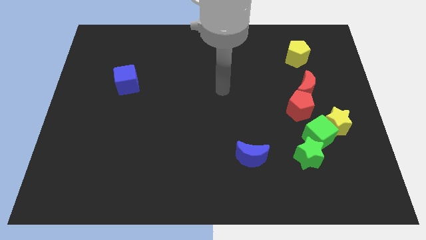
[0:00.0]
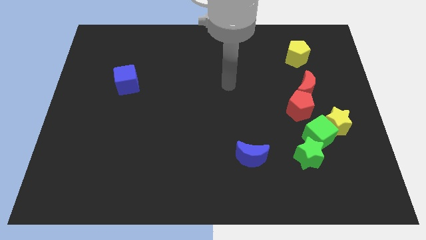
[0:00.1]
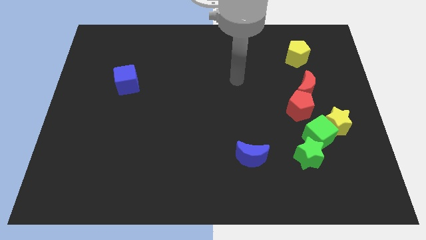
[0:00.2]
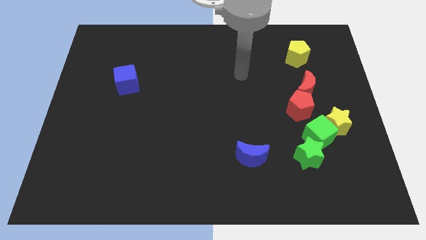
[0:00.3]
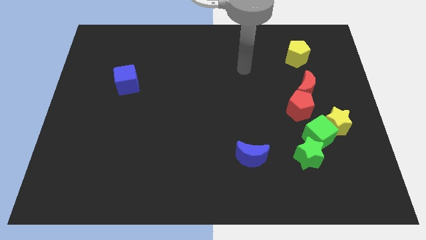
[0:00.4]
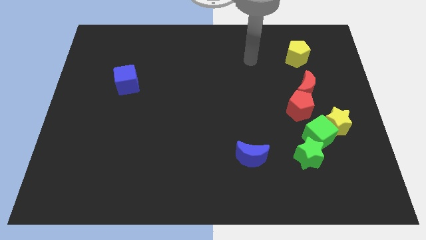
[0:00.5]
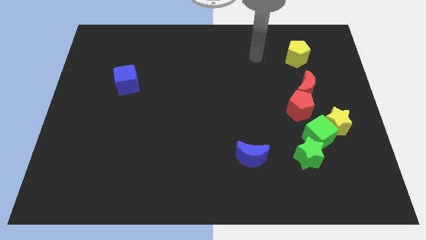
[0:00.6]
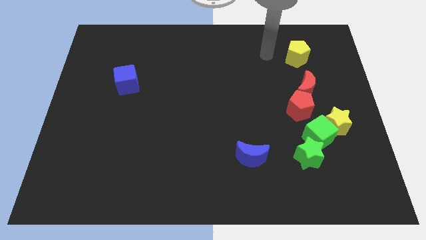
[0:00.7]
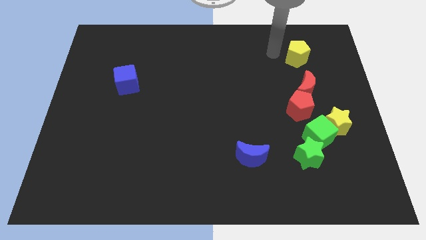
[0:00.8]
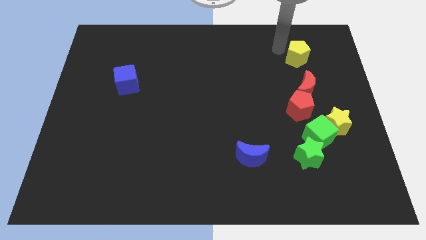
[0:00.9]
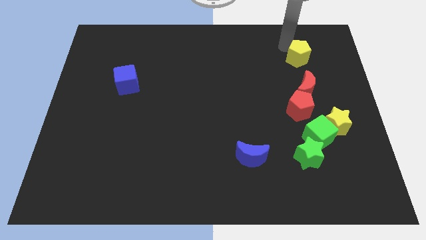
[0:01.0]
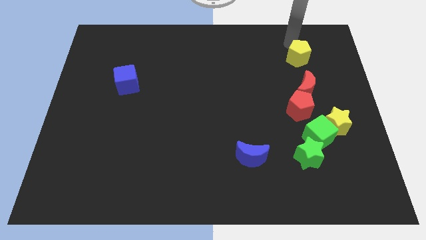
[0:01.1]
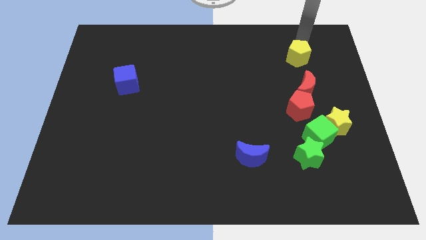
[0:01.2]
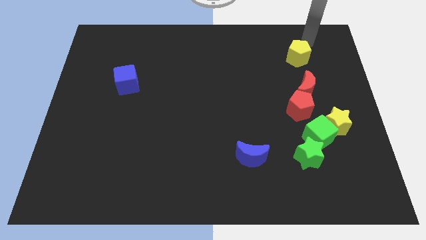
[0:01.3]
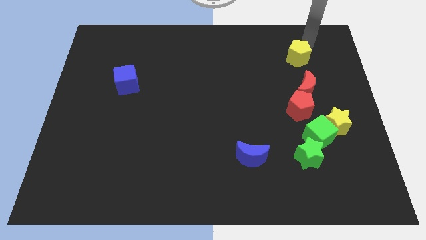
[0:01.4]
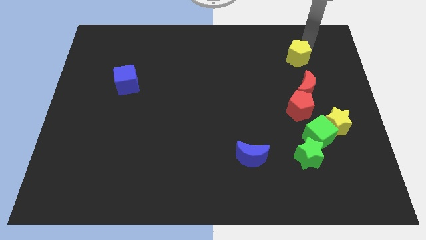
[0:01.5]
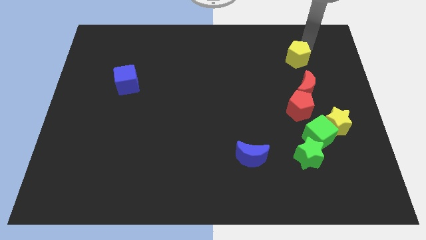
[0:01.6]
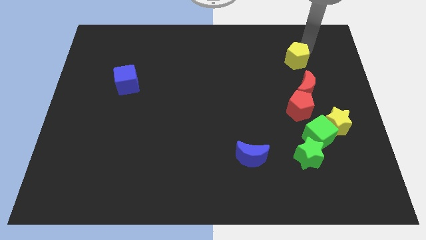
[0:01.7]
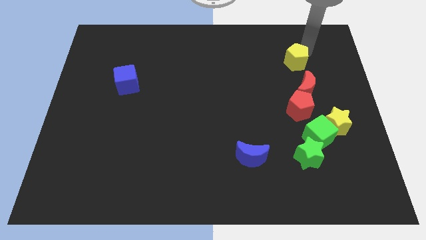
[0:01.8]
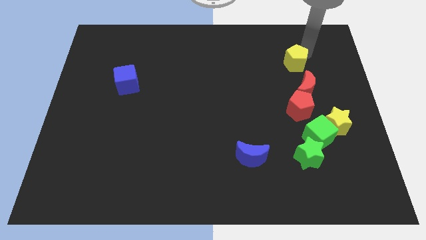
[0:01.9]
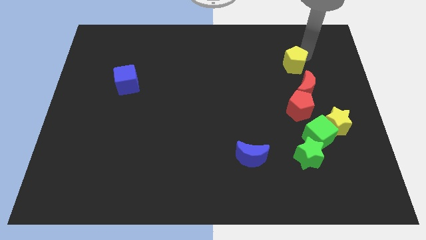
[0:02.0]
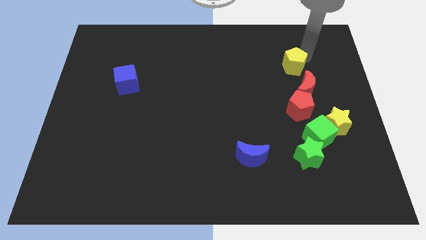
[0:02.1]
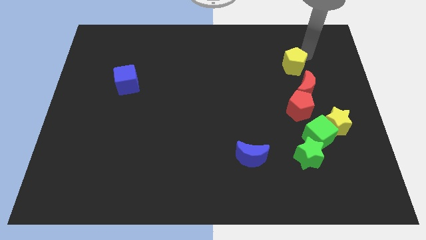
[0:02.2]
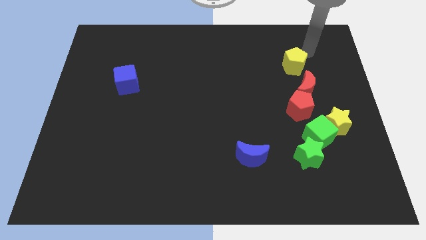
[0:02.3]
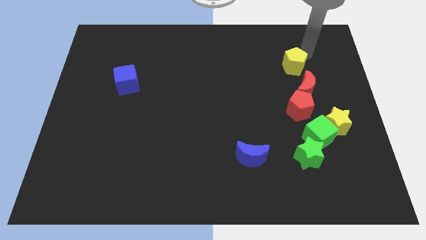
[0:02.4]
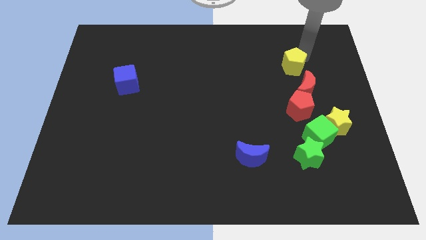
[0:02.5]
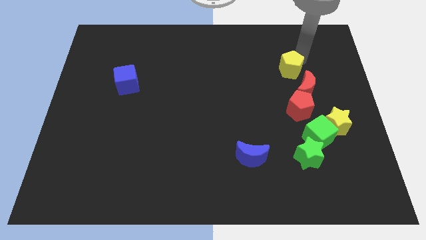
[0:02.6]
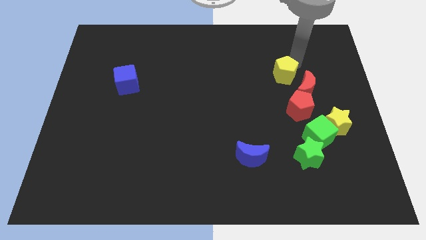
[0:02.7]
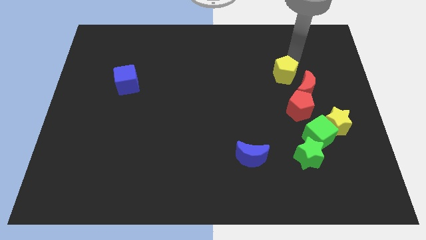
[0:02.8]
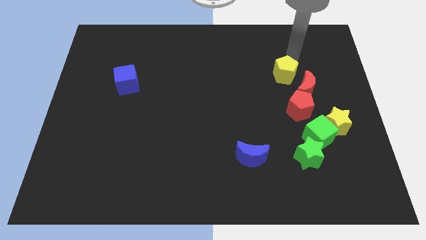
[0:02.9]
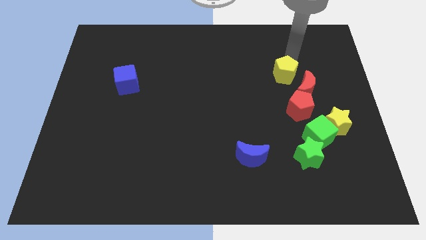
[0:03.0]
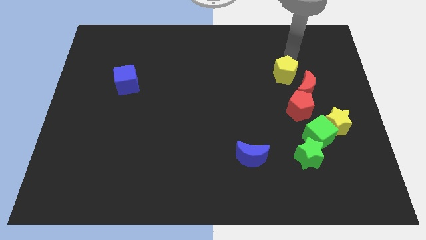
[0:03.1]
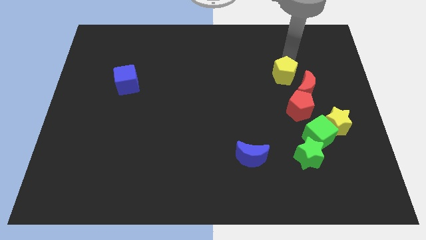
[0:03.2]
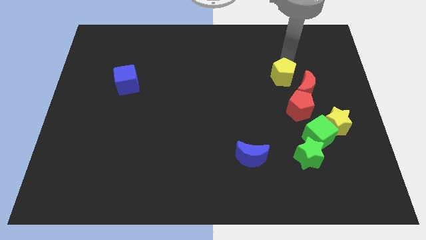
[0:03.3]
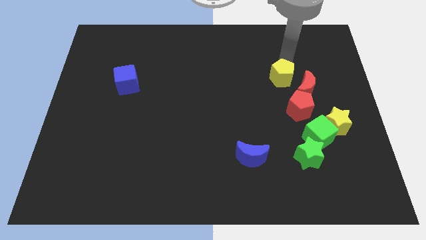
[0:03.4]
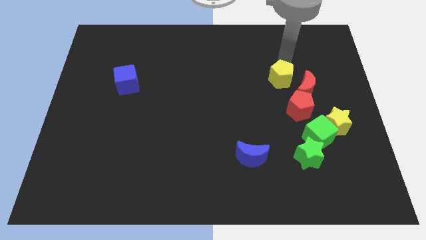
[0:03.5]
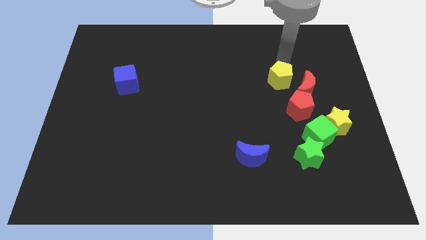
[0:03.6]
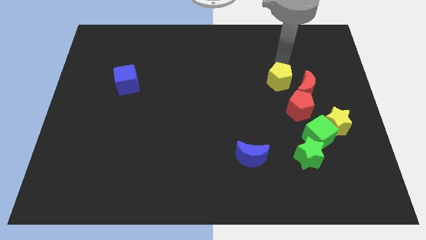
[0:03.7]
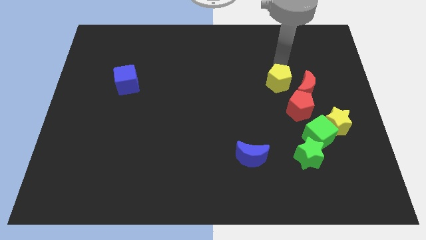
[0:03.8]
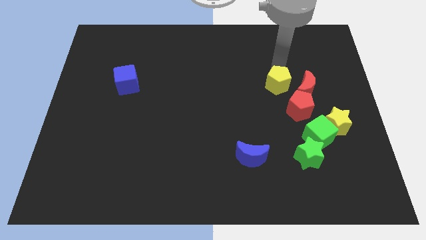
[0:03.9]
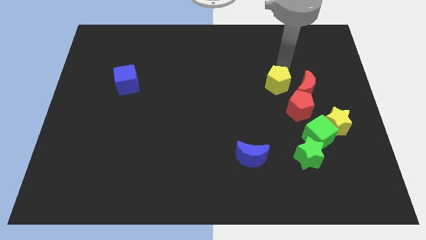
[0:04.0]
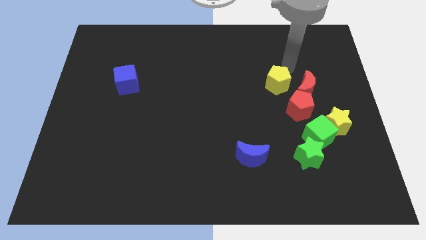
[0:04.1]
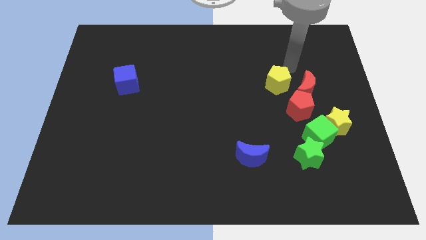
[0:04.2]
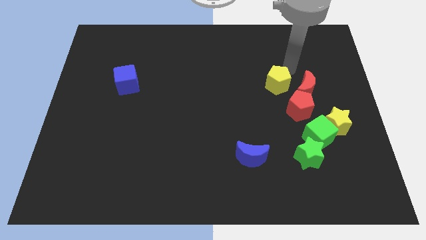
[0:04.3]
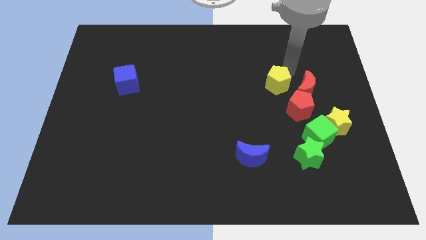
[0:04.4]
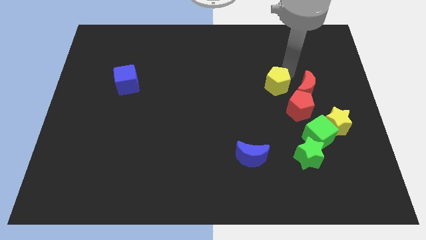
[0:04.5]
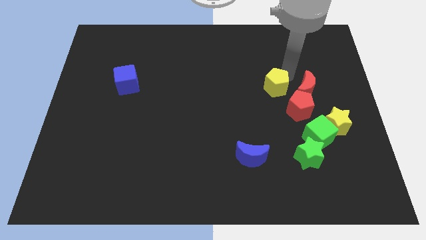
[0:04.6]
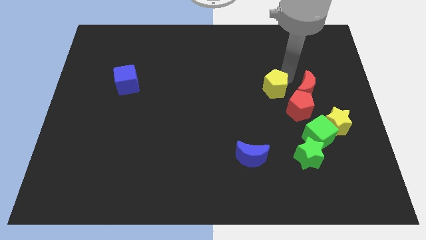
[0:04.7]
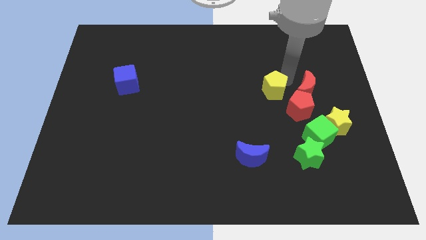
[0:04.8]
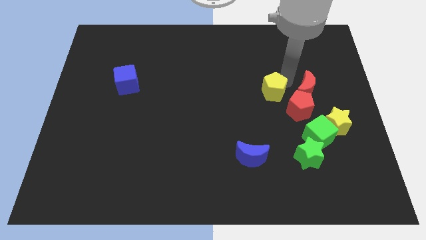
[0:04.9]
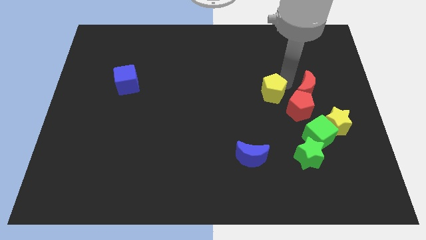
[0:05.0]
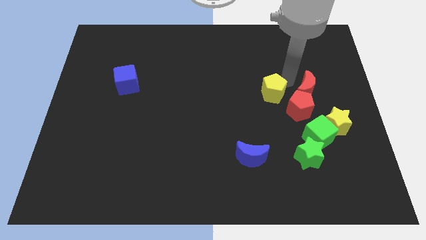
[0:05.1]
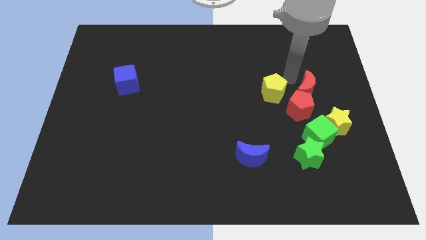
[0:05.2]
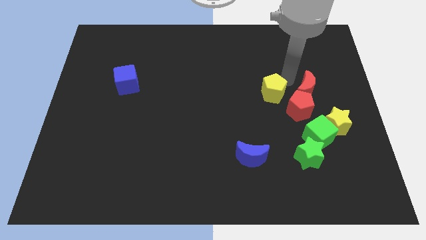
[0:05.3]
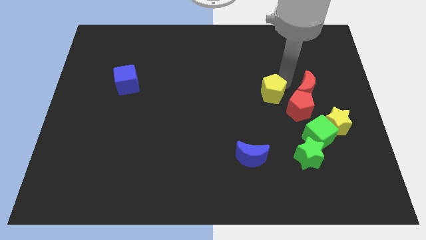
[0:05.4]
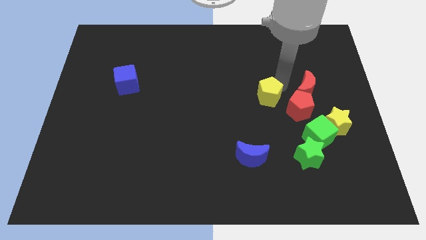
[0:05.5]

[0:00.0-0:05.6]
put the yellow pentagon left of the red pentagon

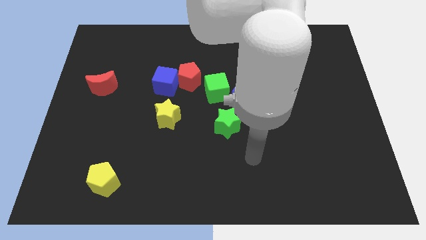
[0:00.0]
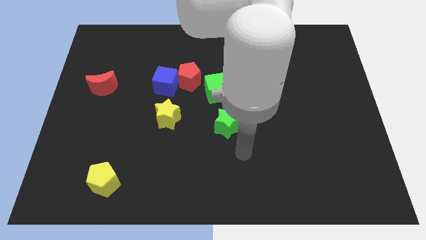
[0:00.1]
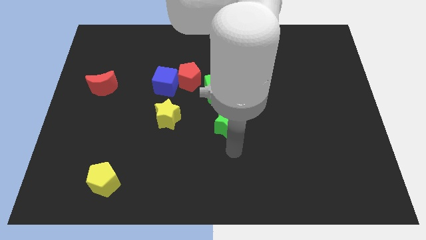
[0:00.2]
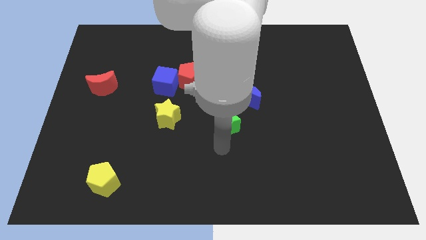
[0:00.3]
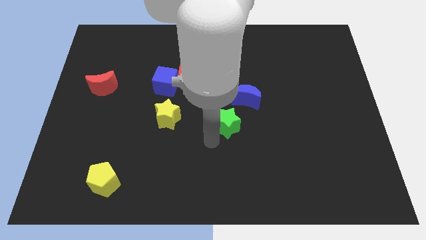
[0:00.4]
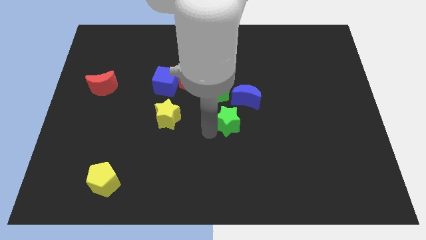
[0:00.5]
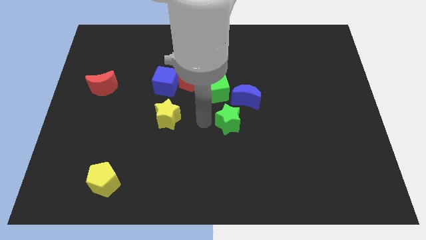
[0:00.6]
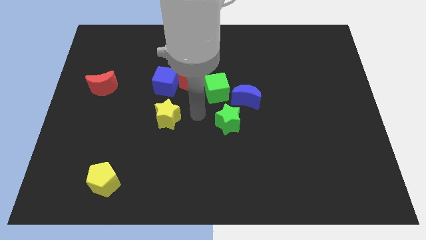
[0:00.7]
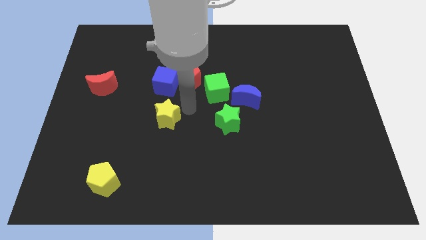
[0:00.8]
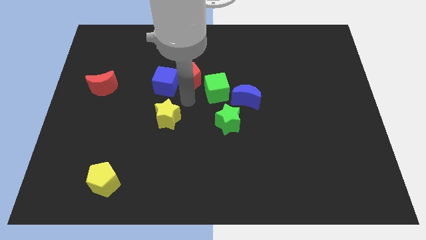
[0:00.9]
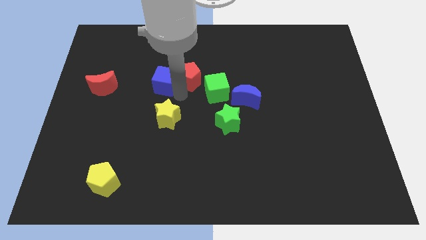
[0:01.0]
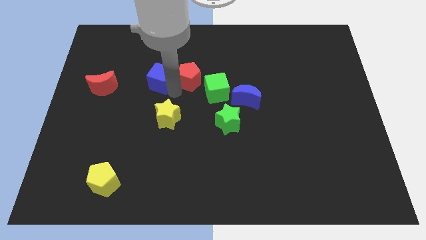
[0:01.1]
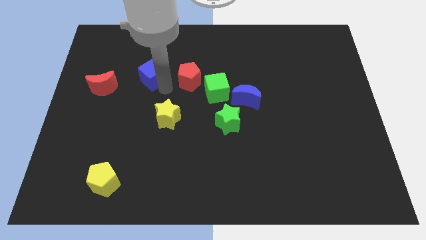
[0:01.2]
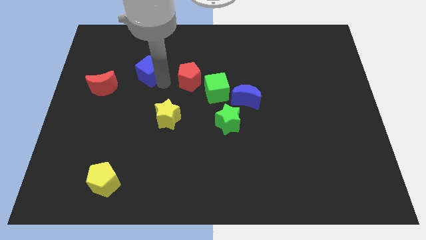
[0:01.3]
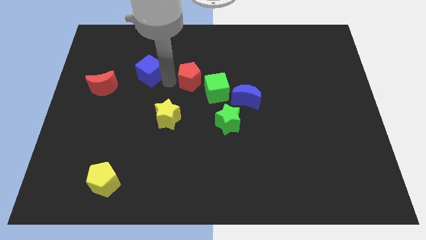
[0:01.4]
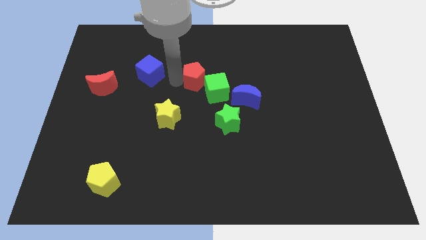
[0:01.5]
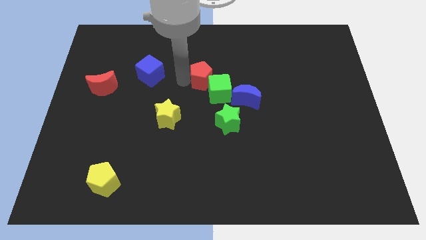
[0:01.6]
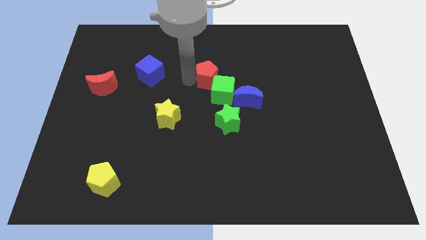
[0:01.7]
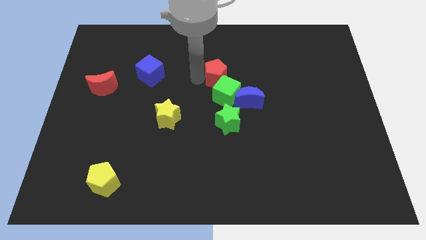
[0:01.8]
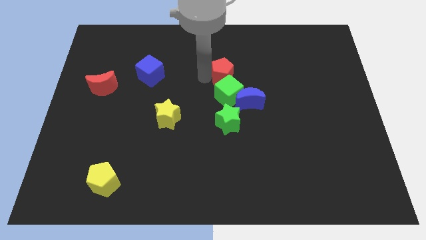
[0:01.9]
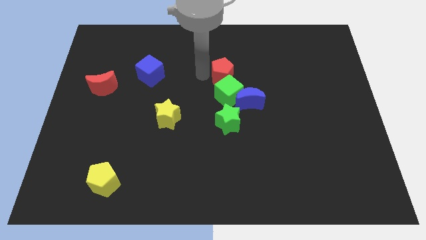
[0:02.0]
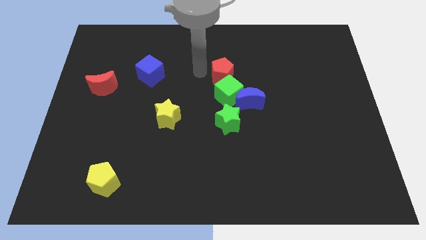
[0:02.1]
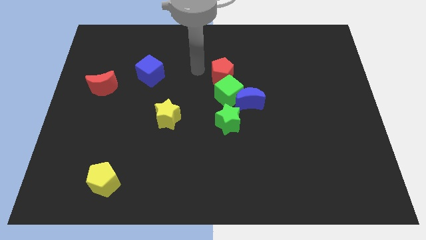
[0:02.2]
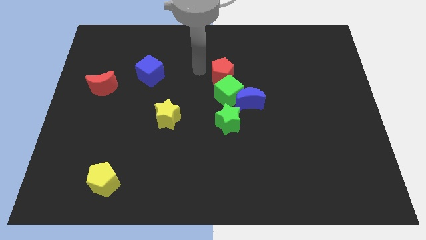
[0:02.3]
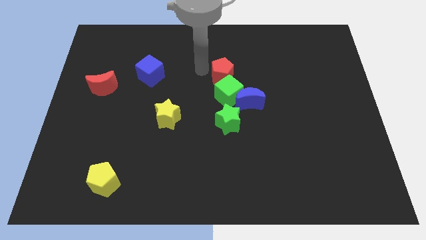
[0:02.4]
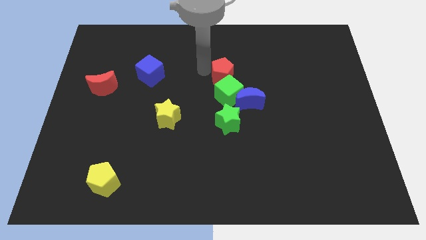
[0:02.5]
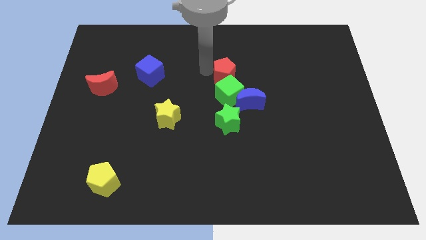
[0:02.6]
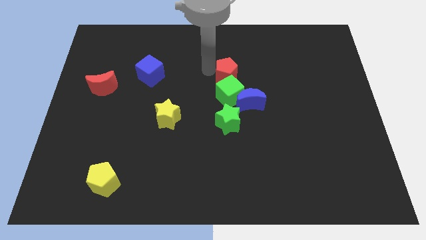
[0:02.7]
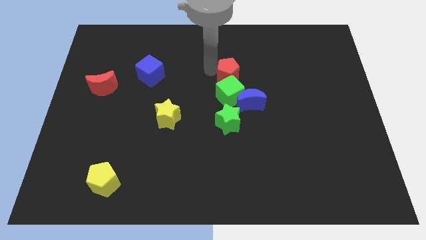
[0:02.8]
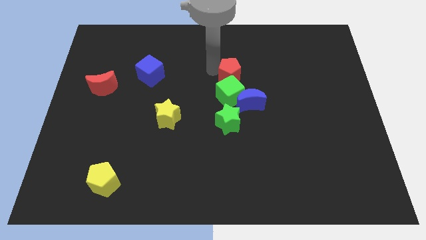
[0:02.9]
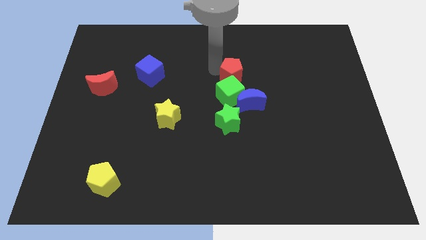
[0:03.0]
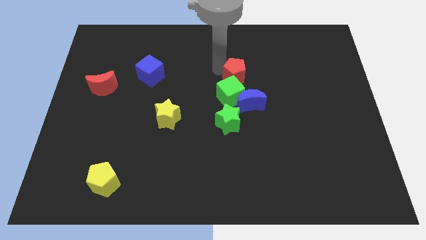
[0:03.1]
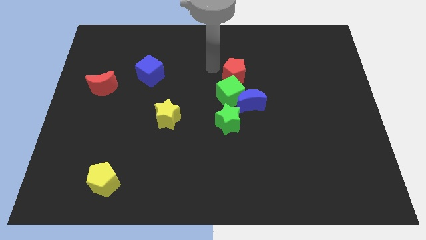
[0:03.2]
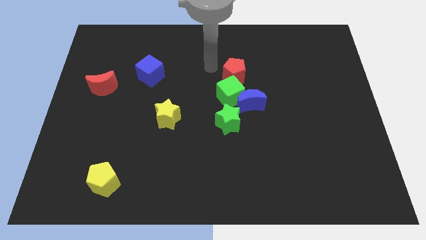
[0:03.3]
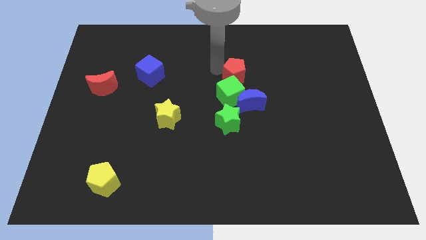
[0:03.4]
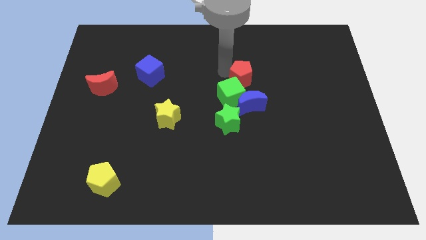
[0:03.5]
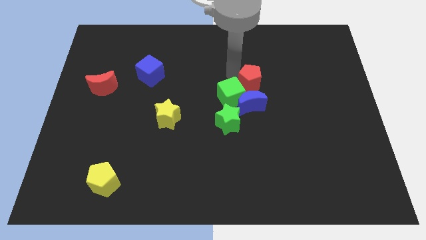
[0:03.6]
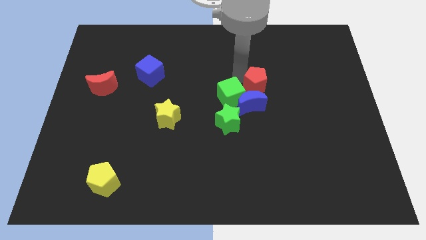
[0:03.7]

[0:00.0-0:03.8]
slide the red pentagon diagonally up and to the right of the blue moon
